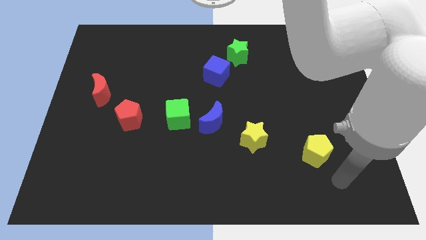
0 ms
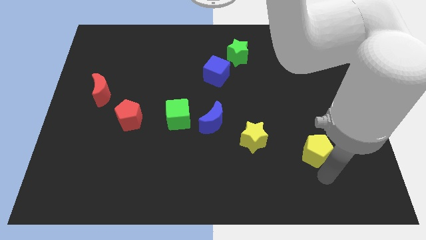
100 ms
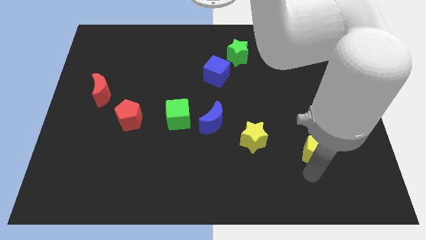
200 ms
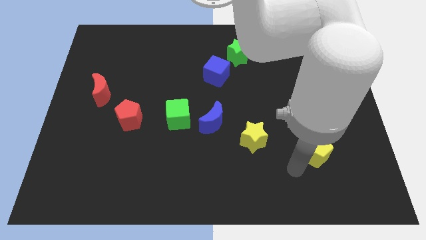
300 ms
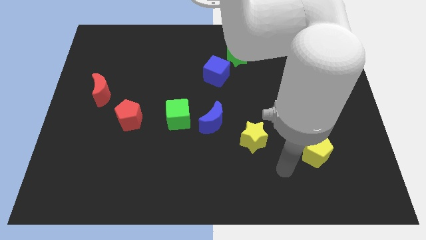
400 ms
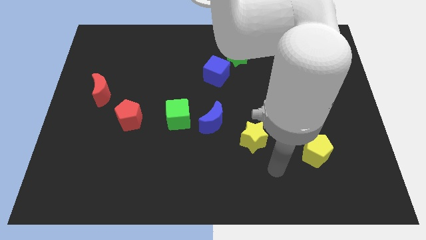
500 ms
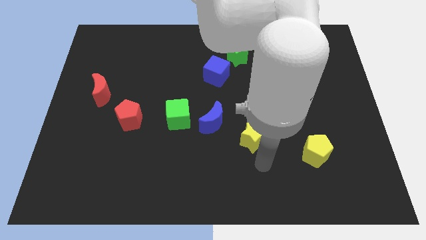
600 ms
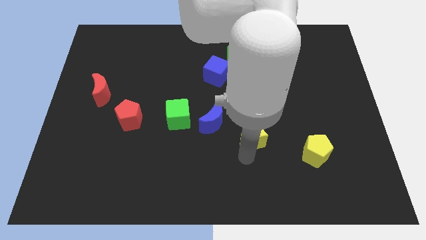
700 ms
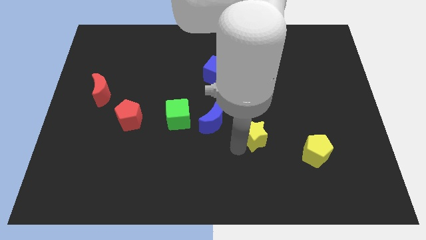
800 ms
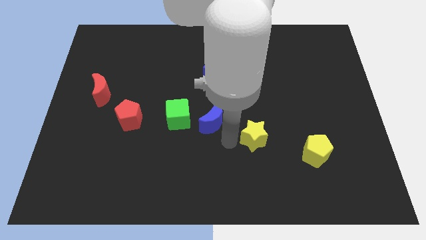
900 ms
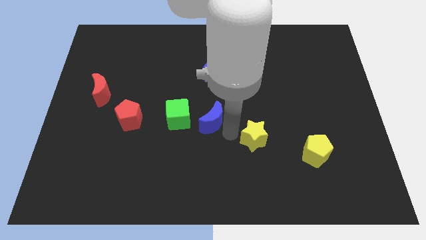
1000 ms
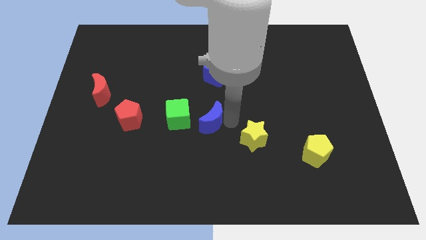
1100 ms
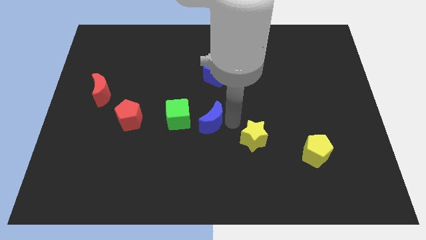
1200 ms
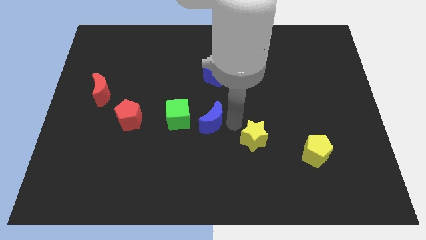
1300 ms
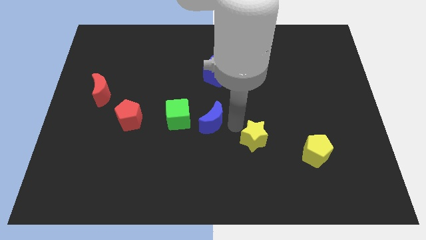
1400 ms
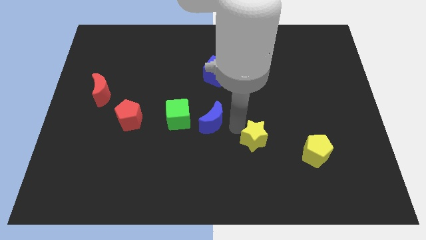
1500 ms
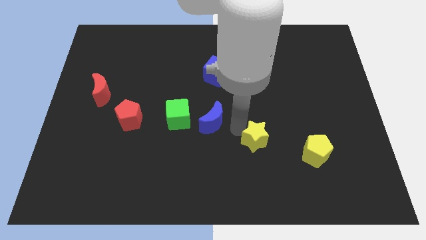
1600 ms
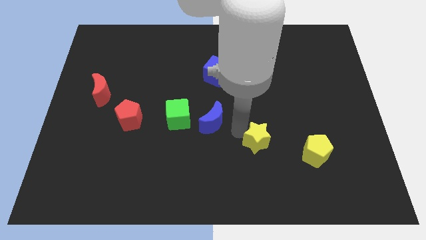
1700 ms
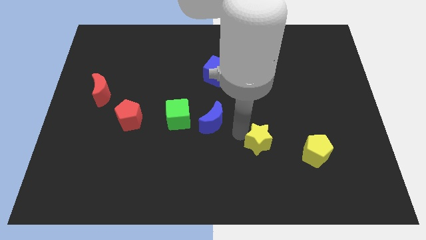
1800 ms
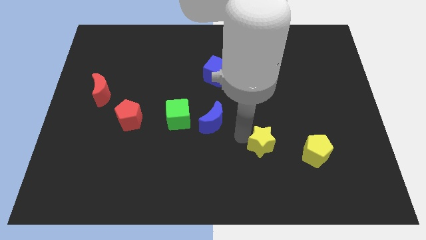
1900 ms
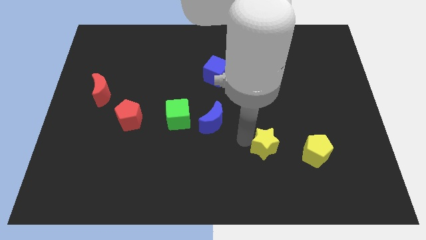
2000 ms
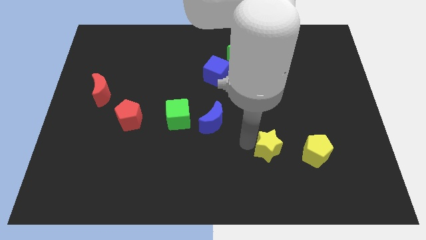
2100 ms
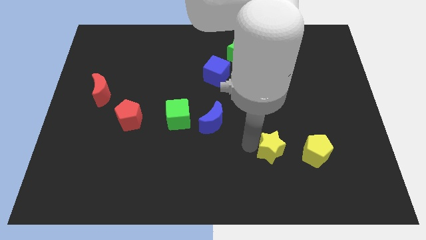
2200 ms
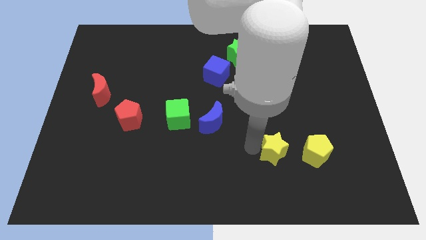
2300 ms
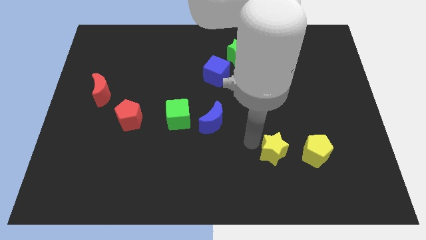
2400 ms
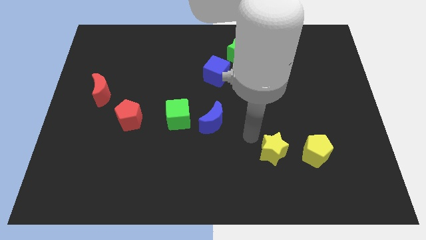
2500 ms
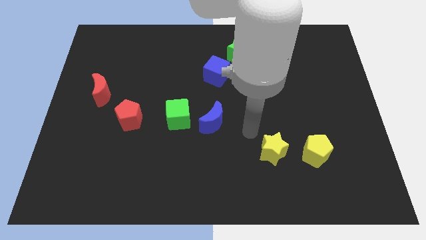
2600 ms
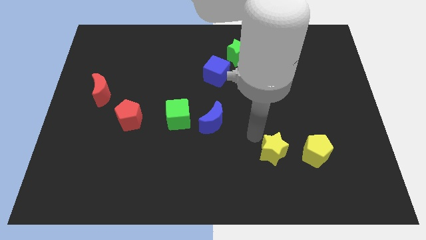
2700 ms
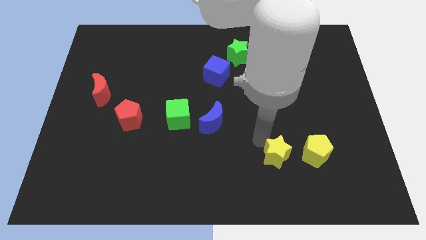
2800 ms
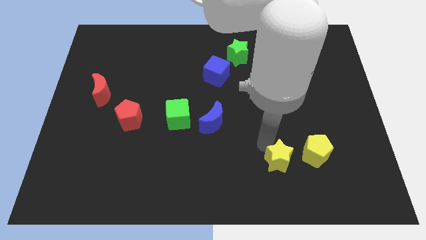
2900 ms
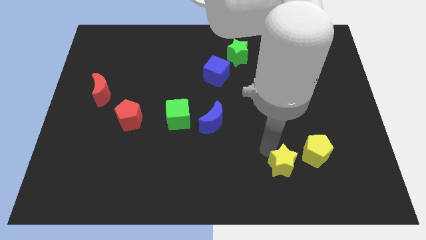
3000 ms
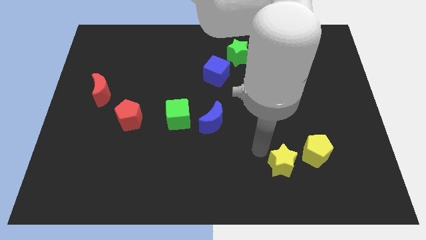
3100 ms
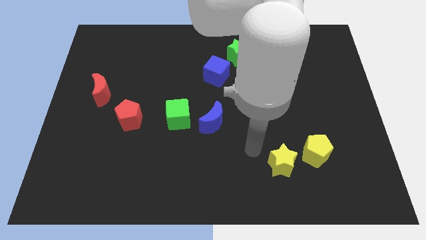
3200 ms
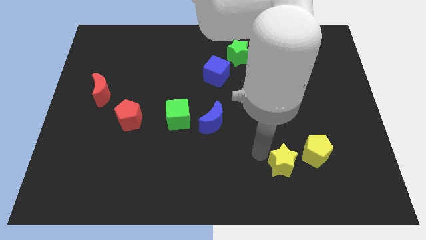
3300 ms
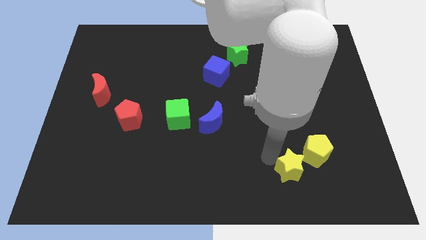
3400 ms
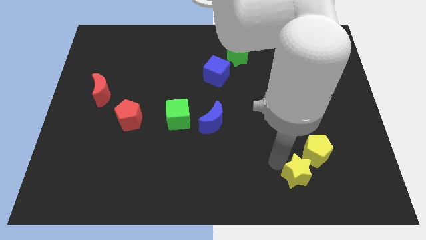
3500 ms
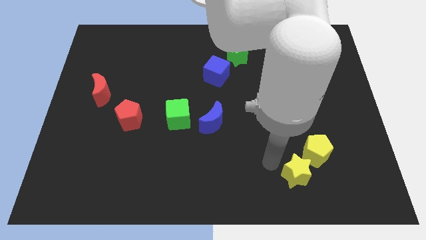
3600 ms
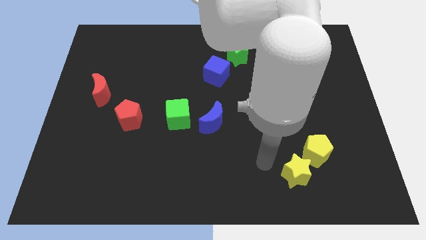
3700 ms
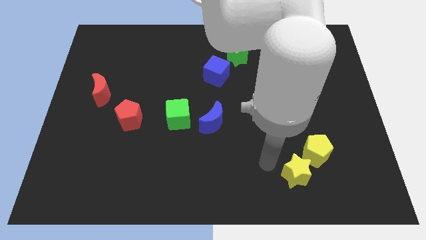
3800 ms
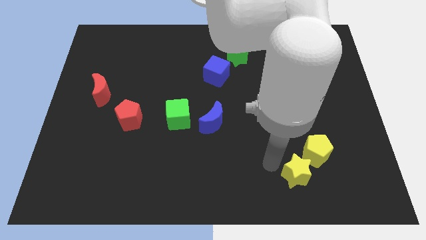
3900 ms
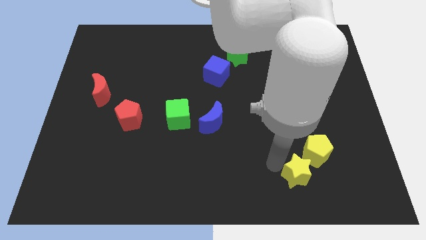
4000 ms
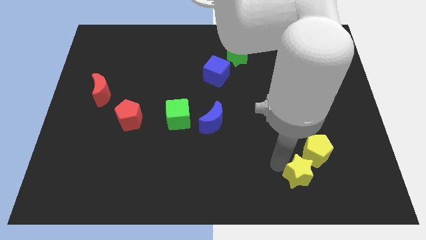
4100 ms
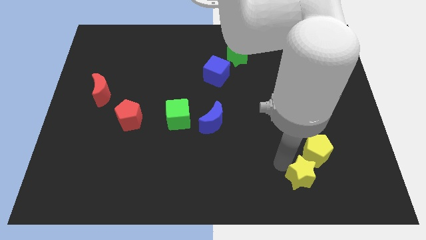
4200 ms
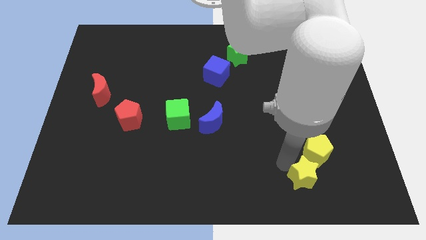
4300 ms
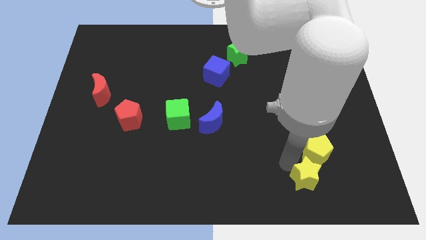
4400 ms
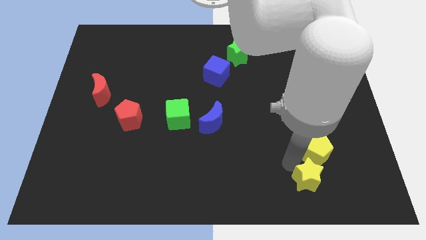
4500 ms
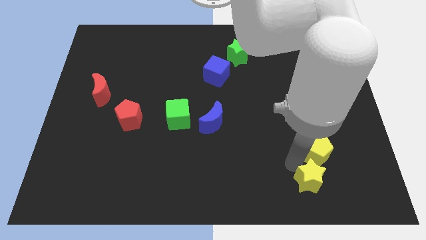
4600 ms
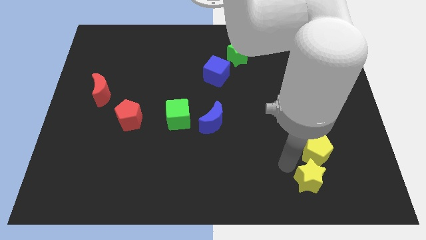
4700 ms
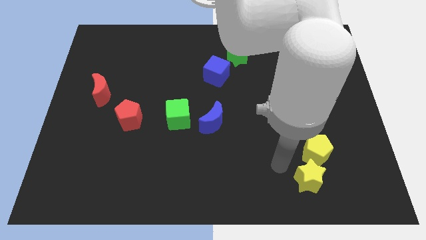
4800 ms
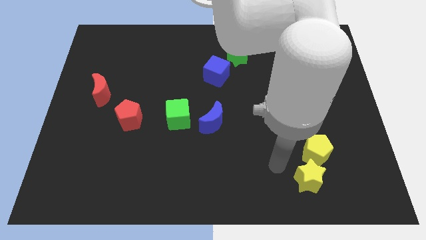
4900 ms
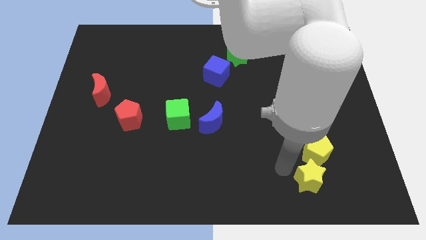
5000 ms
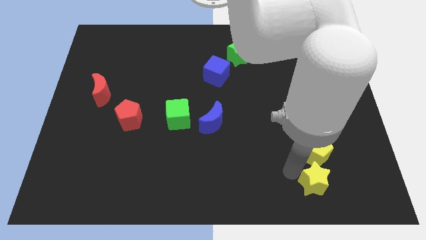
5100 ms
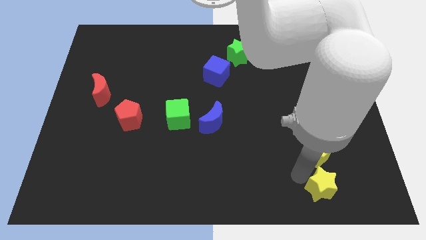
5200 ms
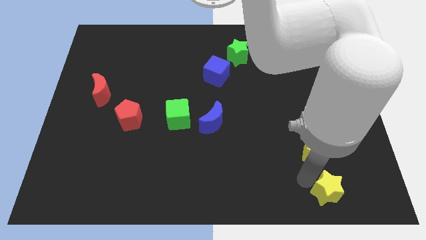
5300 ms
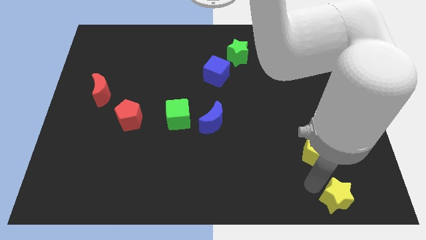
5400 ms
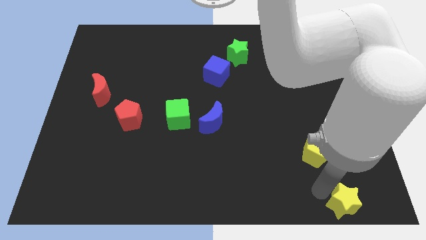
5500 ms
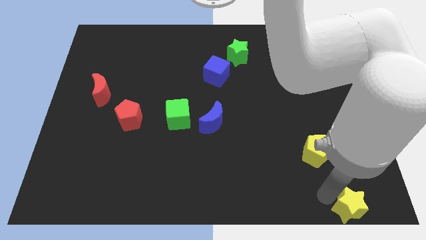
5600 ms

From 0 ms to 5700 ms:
put the yellow star to the bottom right
